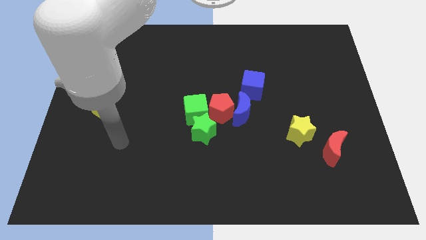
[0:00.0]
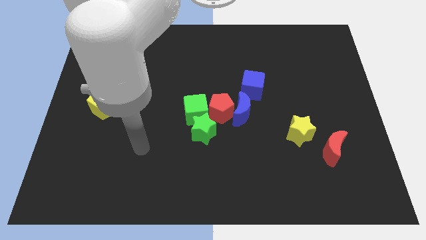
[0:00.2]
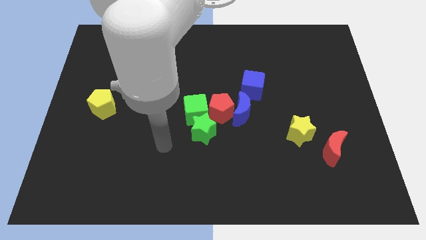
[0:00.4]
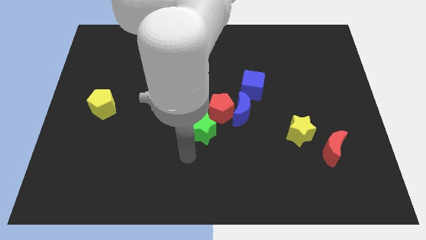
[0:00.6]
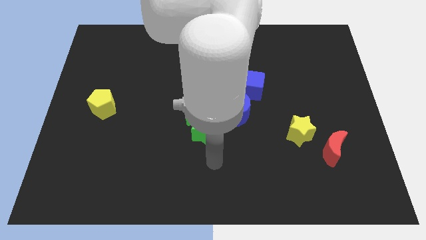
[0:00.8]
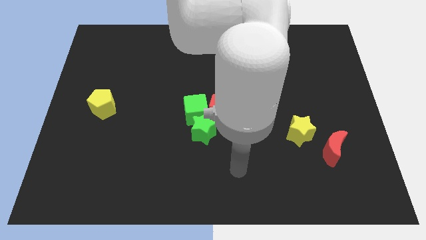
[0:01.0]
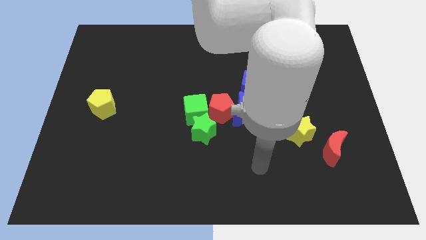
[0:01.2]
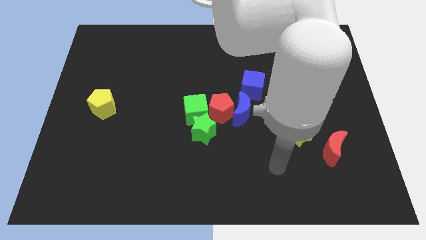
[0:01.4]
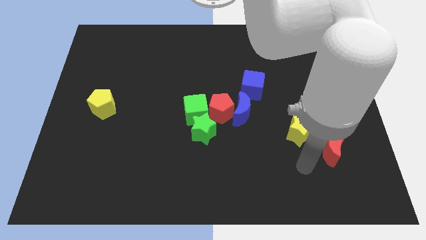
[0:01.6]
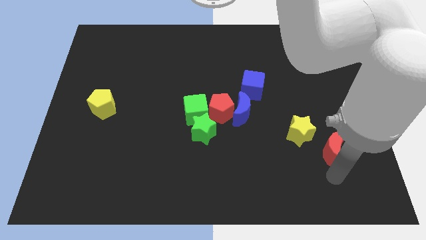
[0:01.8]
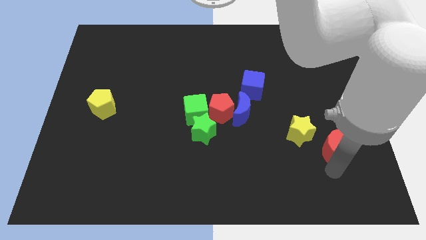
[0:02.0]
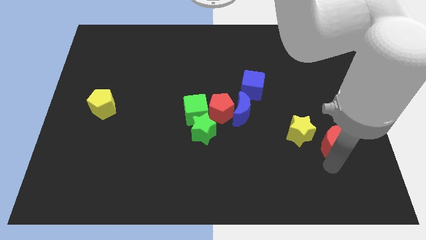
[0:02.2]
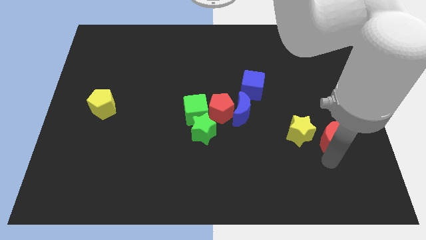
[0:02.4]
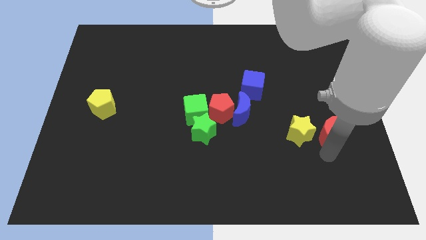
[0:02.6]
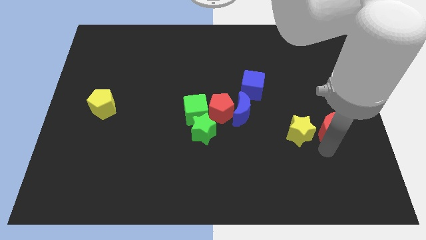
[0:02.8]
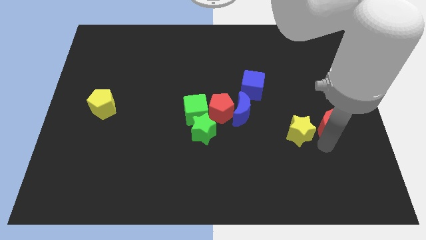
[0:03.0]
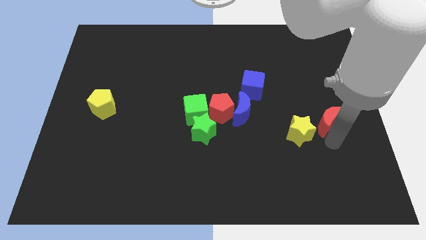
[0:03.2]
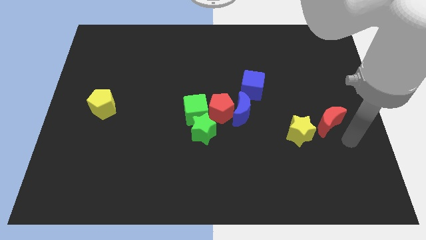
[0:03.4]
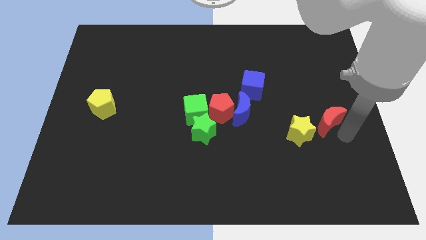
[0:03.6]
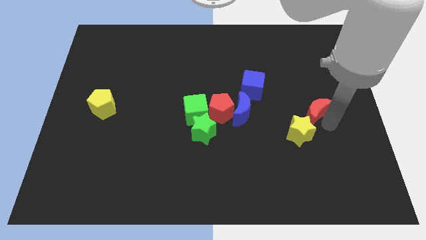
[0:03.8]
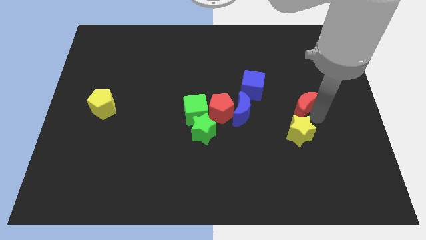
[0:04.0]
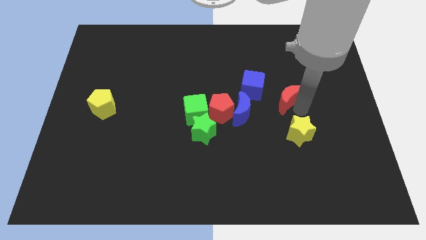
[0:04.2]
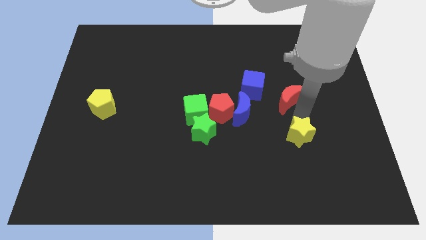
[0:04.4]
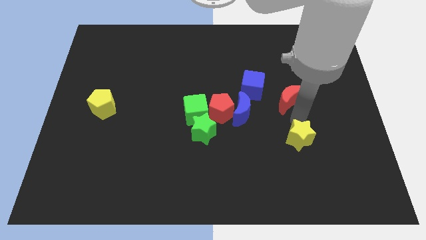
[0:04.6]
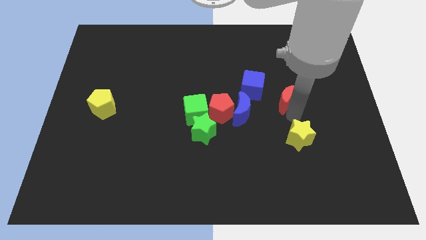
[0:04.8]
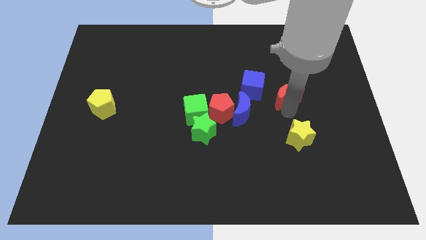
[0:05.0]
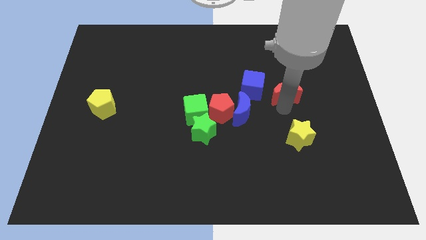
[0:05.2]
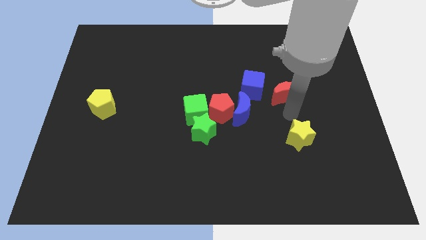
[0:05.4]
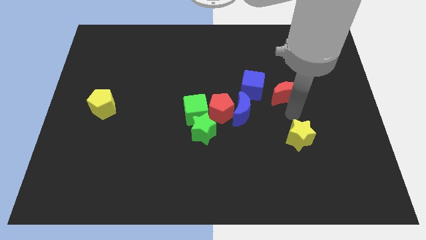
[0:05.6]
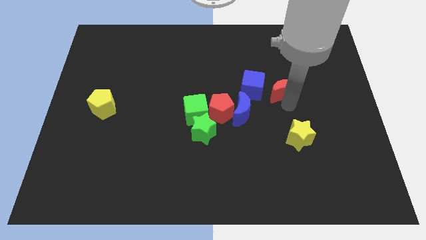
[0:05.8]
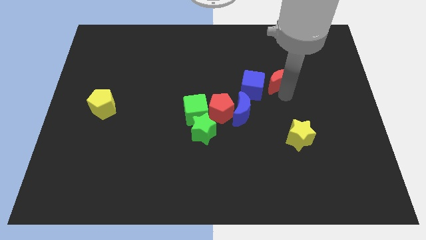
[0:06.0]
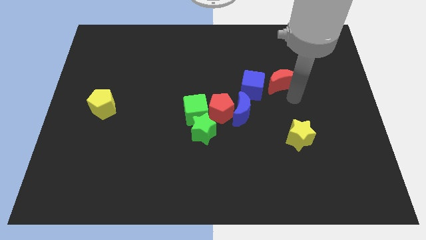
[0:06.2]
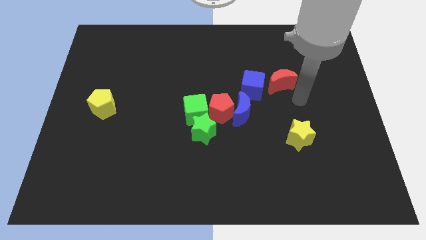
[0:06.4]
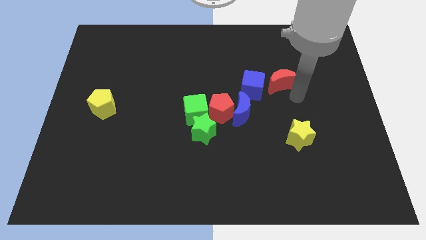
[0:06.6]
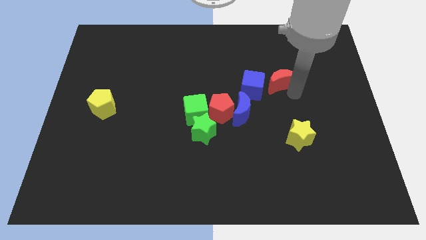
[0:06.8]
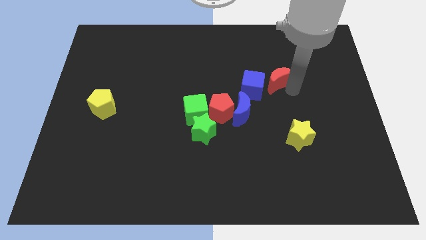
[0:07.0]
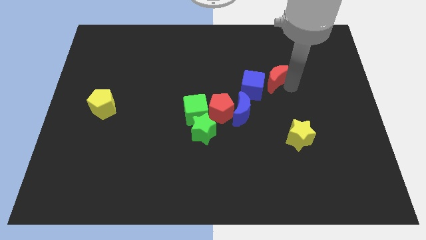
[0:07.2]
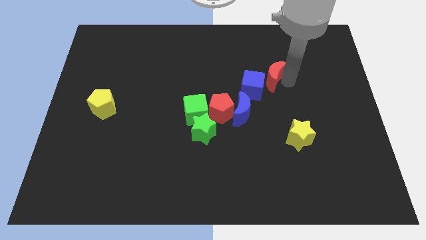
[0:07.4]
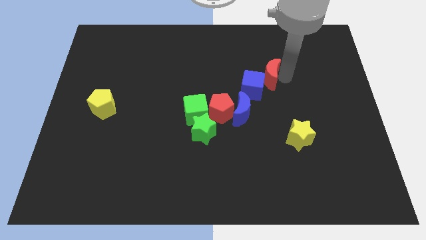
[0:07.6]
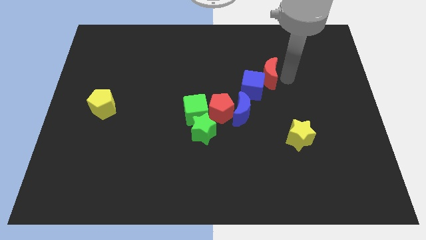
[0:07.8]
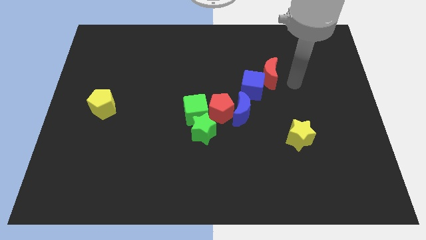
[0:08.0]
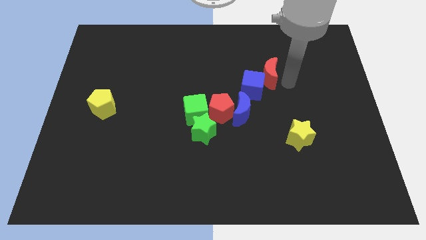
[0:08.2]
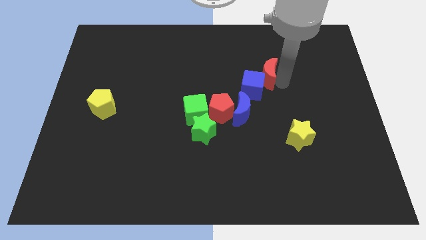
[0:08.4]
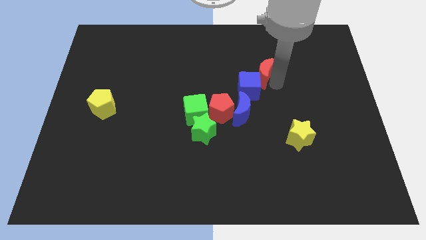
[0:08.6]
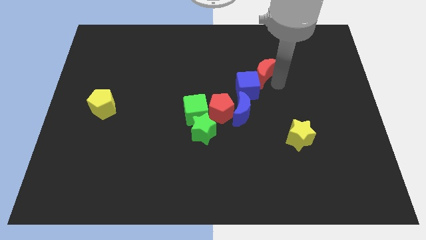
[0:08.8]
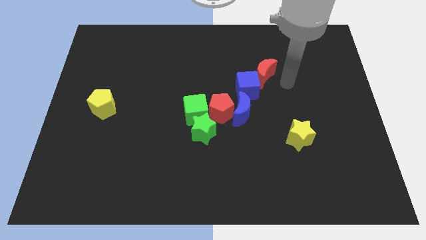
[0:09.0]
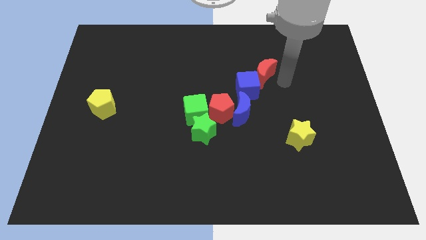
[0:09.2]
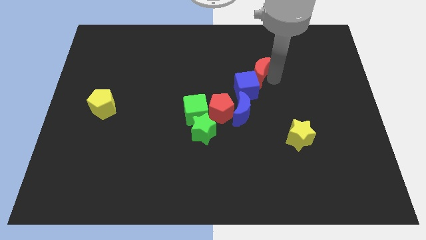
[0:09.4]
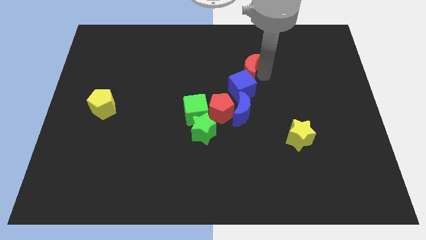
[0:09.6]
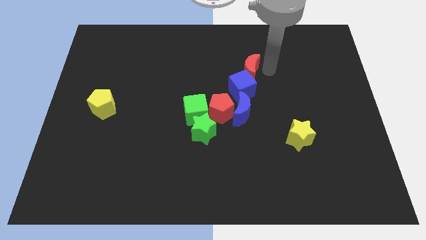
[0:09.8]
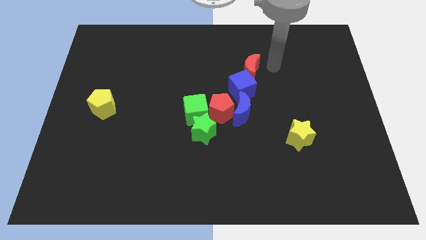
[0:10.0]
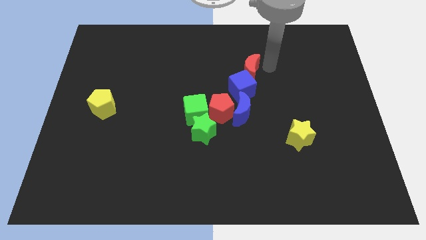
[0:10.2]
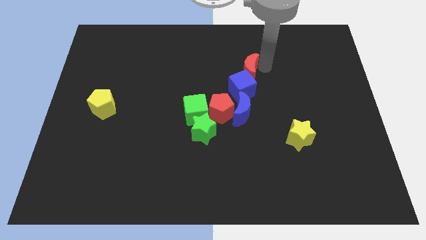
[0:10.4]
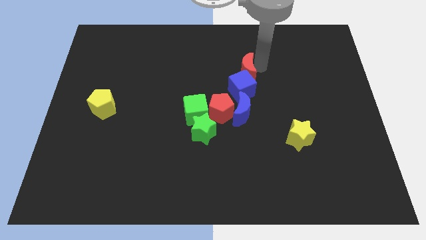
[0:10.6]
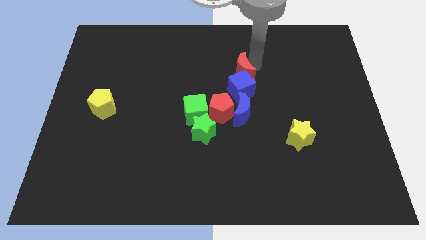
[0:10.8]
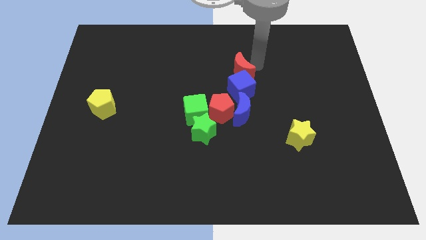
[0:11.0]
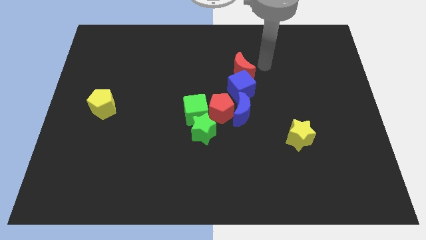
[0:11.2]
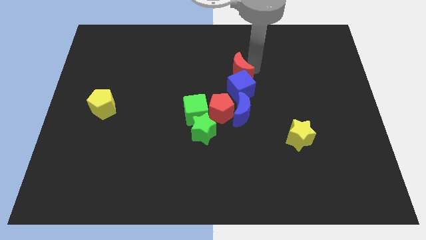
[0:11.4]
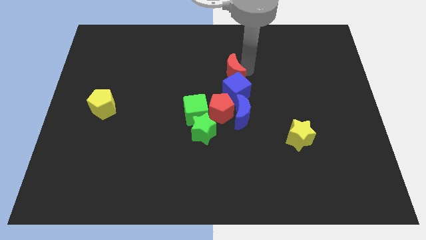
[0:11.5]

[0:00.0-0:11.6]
put the red moon to the top side of the red pentagon

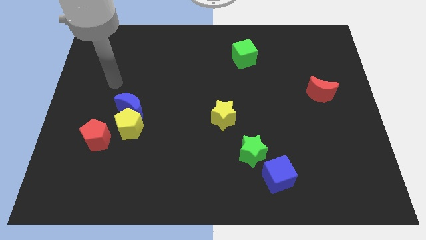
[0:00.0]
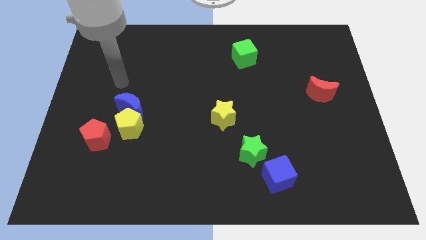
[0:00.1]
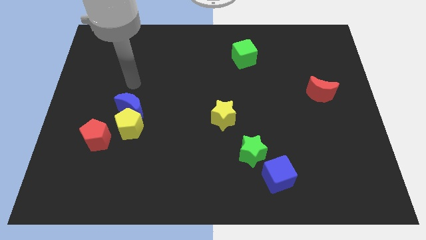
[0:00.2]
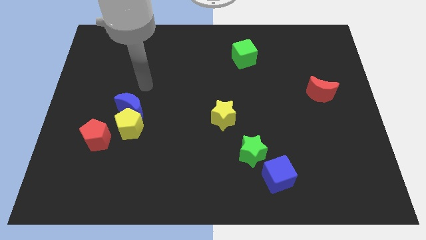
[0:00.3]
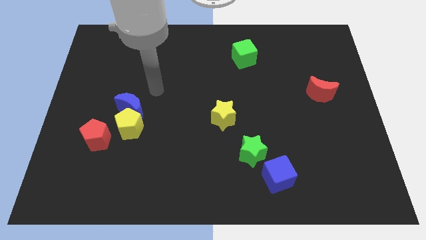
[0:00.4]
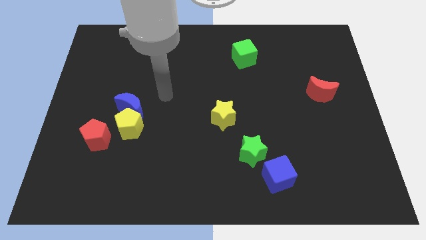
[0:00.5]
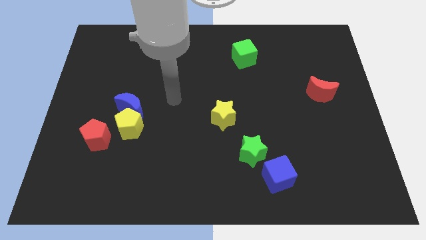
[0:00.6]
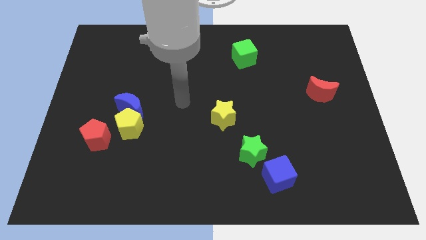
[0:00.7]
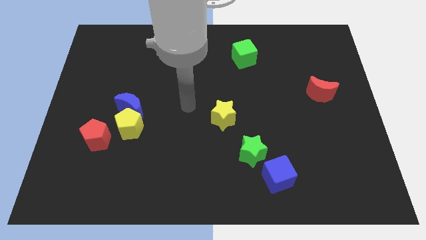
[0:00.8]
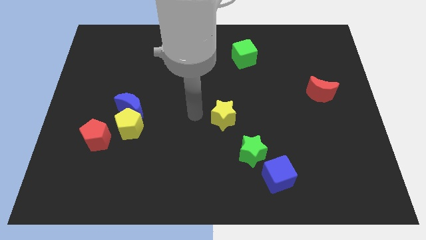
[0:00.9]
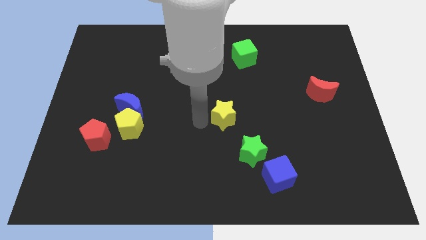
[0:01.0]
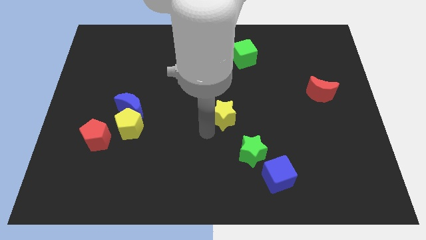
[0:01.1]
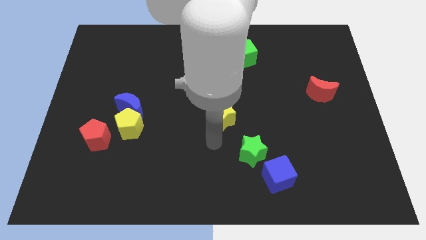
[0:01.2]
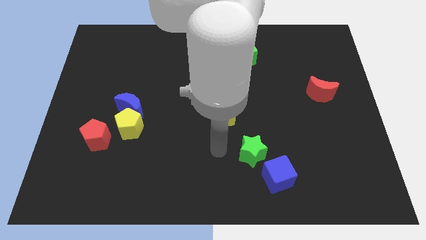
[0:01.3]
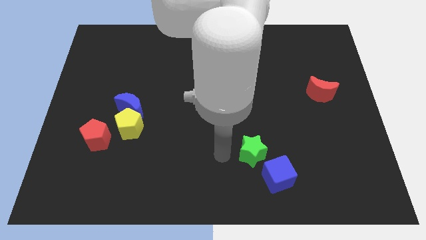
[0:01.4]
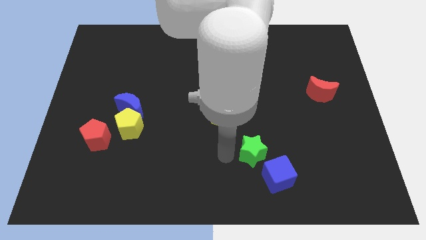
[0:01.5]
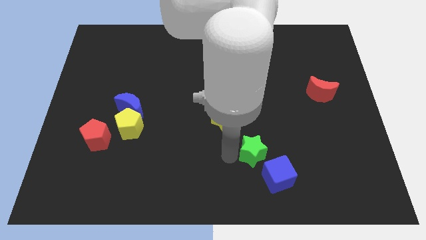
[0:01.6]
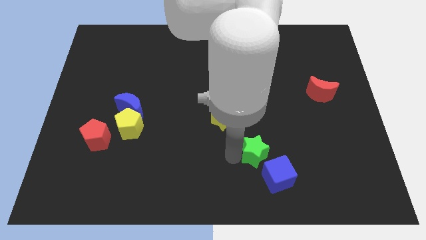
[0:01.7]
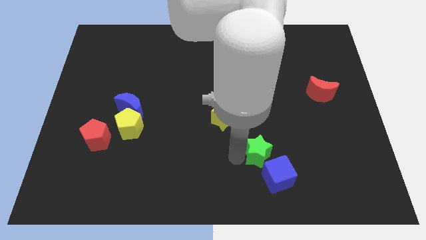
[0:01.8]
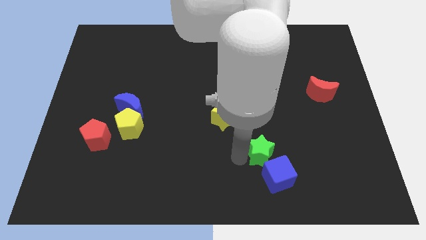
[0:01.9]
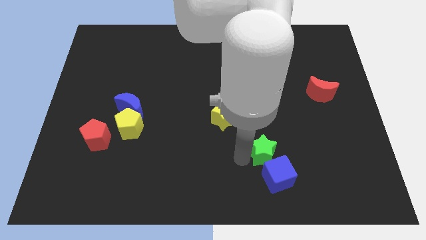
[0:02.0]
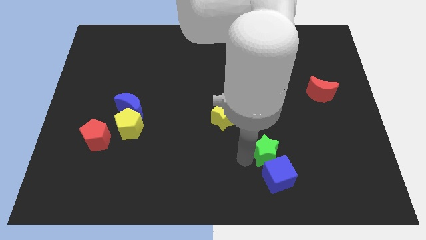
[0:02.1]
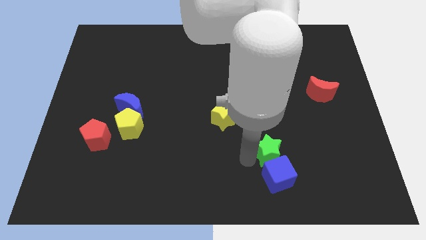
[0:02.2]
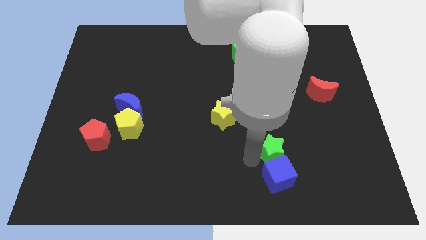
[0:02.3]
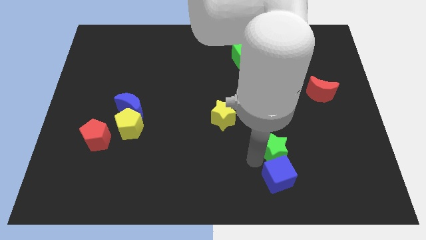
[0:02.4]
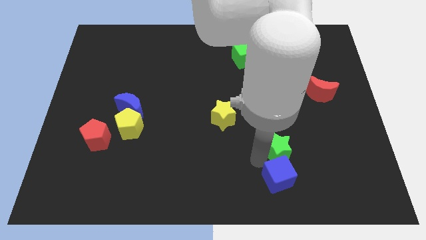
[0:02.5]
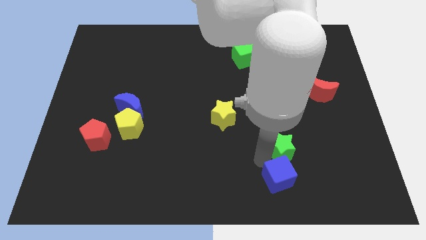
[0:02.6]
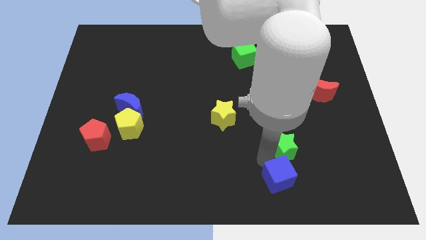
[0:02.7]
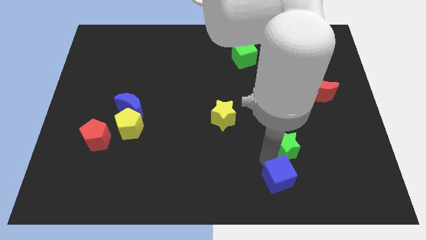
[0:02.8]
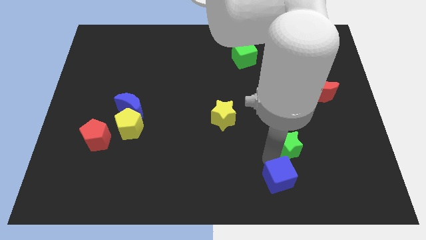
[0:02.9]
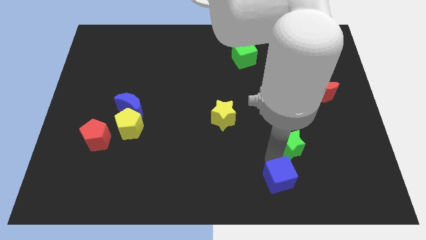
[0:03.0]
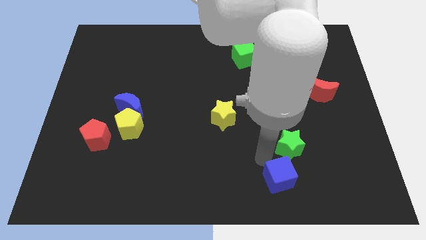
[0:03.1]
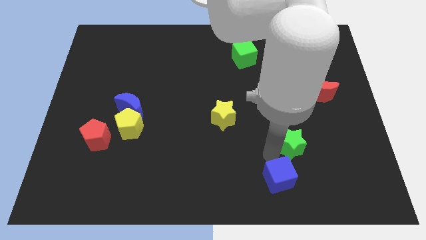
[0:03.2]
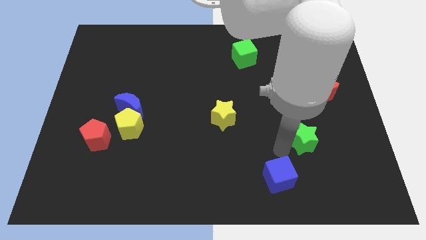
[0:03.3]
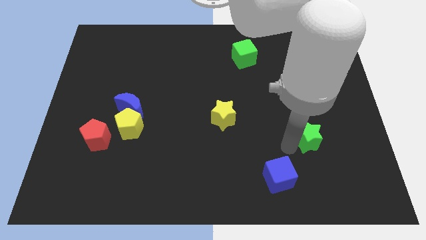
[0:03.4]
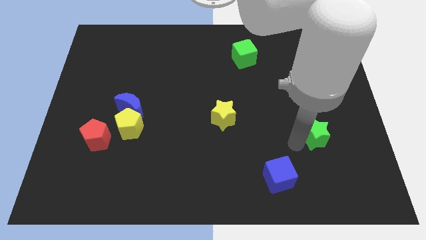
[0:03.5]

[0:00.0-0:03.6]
slide the green star below the red moon
